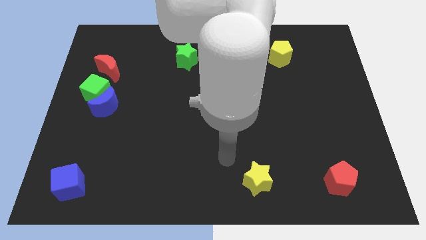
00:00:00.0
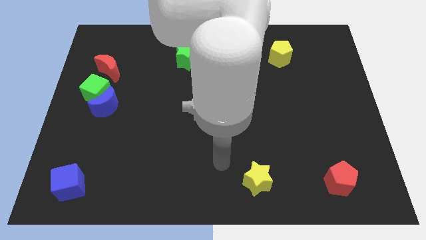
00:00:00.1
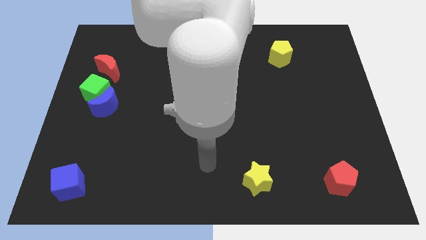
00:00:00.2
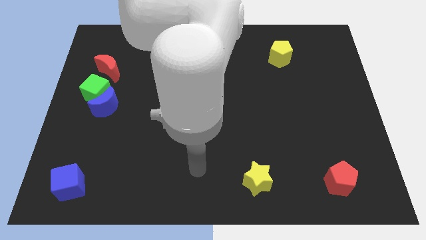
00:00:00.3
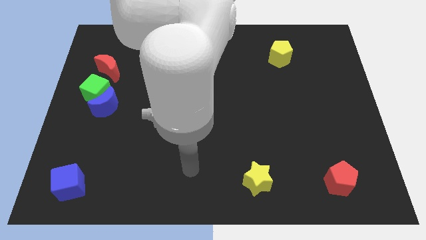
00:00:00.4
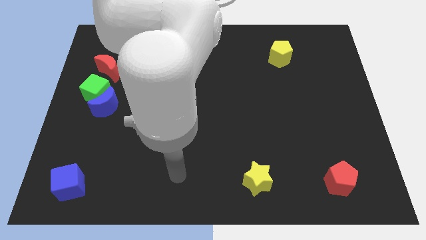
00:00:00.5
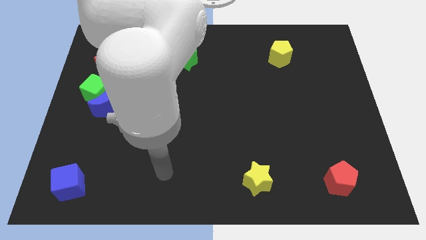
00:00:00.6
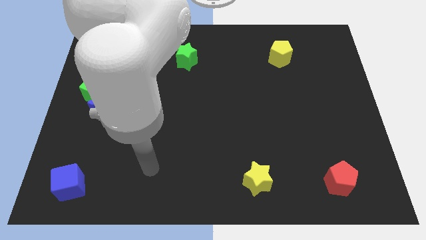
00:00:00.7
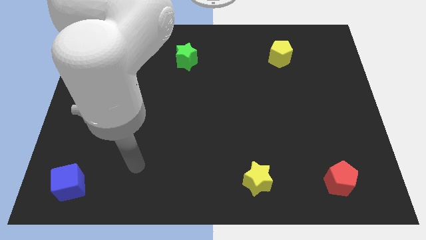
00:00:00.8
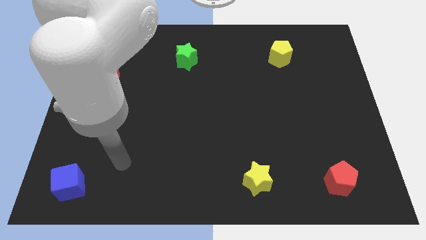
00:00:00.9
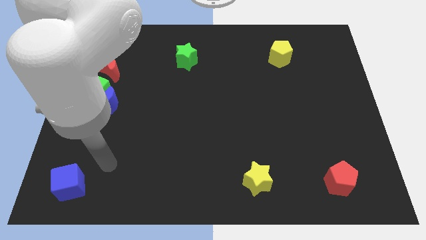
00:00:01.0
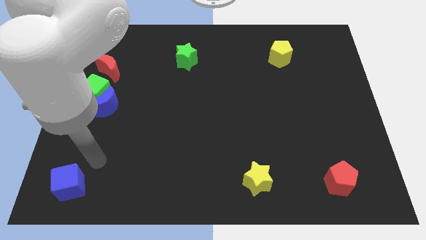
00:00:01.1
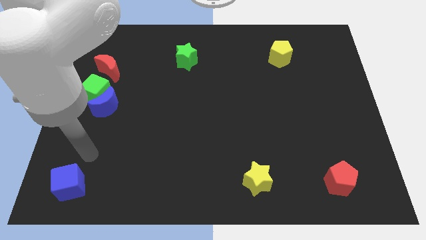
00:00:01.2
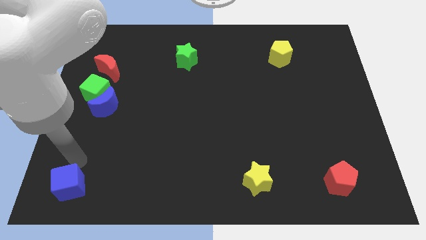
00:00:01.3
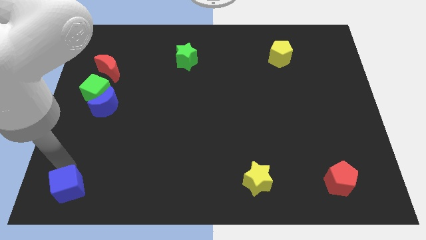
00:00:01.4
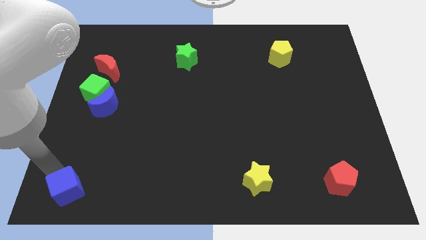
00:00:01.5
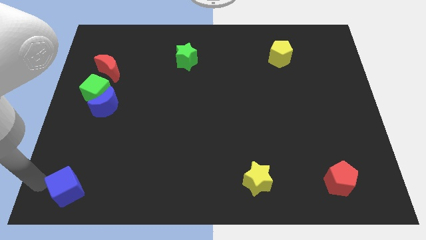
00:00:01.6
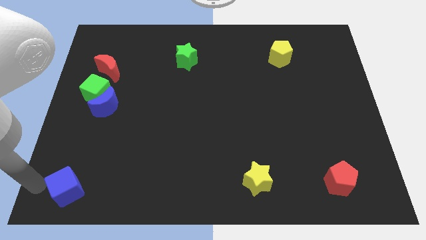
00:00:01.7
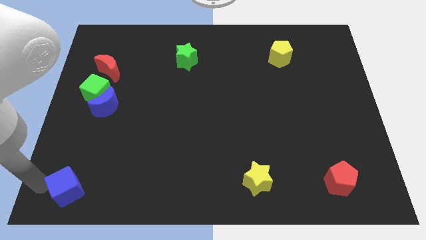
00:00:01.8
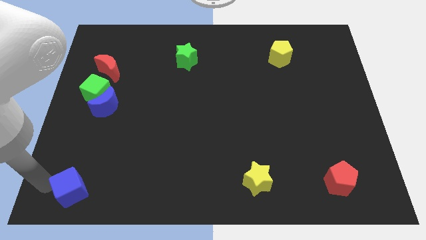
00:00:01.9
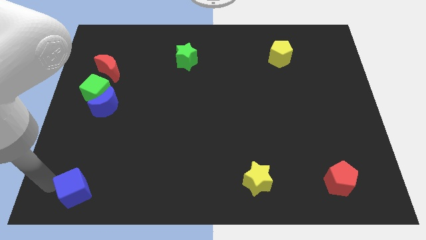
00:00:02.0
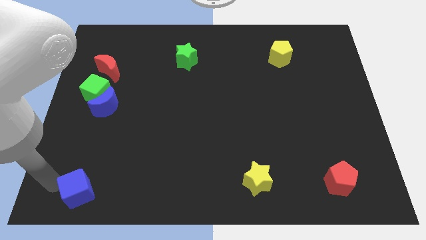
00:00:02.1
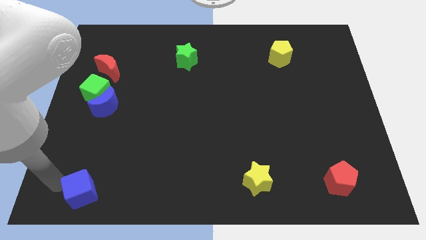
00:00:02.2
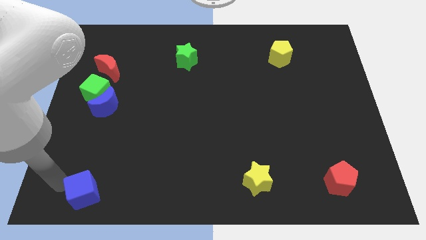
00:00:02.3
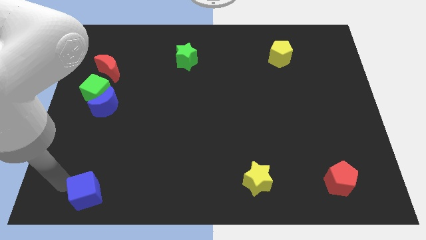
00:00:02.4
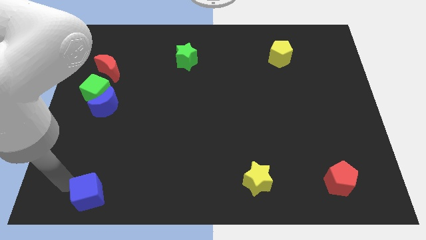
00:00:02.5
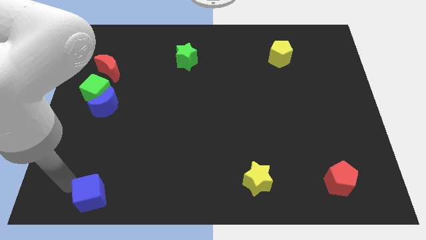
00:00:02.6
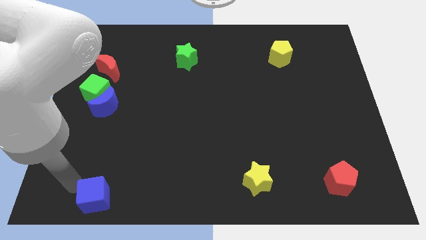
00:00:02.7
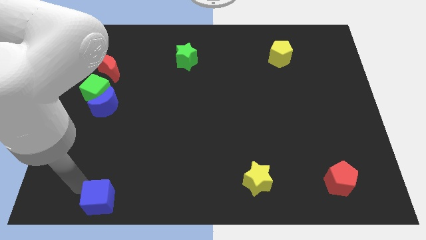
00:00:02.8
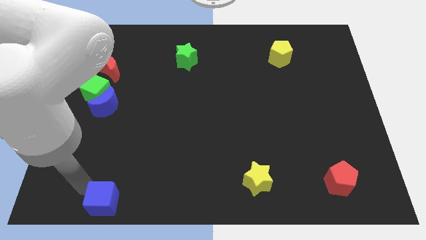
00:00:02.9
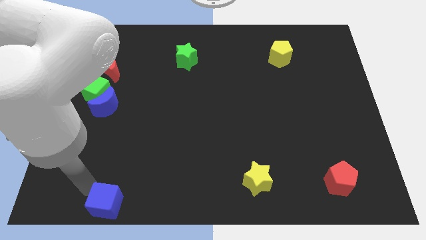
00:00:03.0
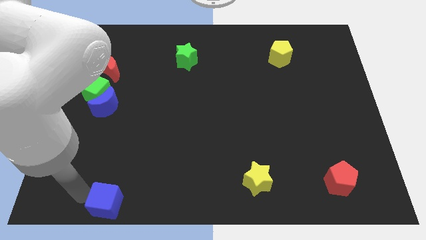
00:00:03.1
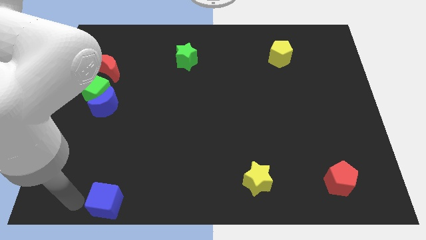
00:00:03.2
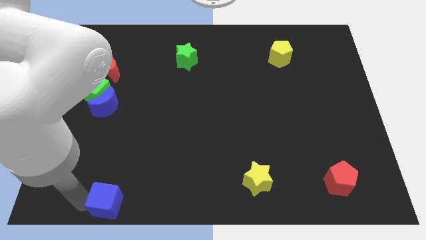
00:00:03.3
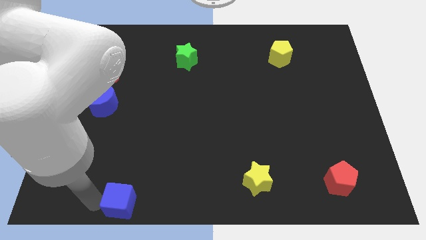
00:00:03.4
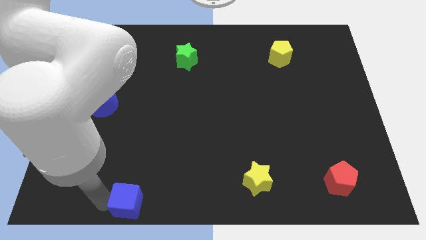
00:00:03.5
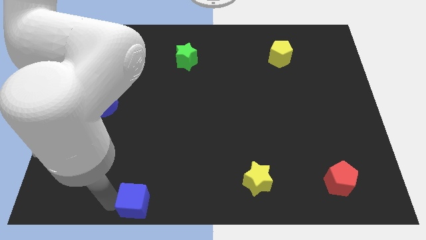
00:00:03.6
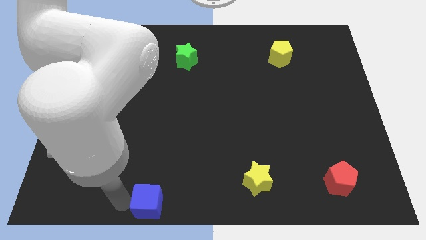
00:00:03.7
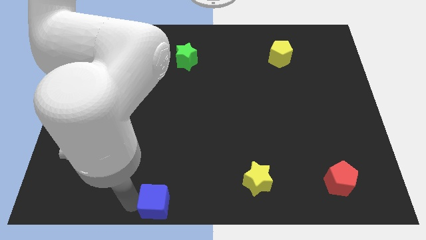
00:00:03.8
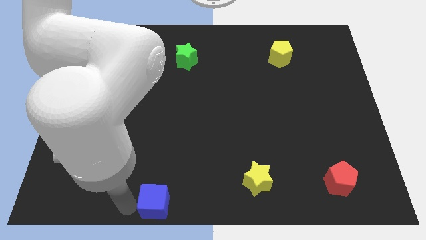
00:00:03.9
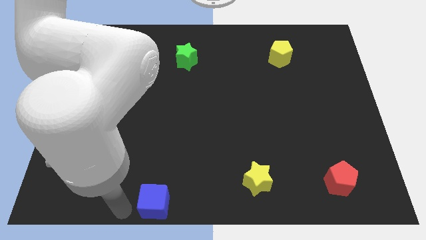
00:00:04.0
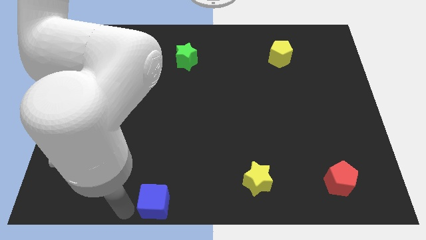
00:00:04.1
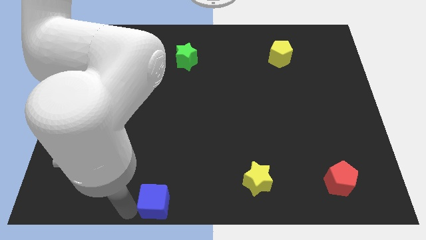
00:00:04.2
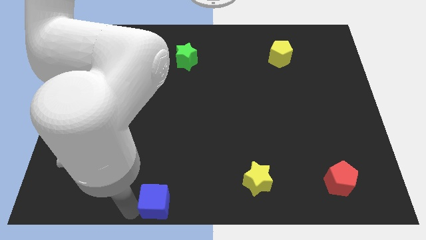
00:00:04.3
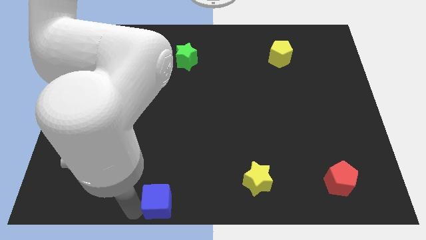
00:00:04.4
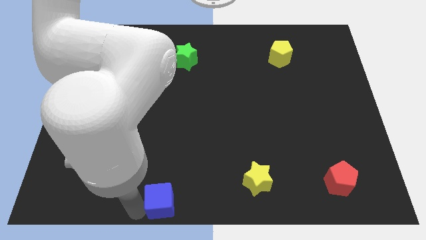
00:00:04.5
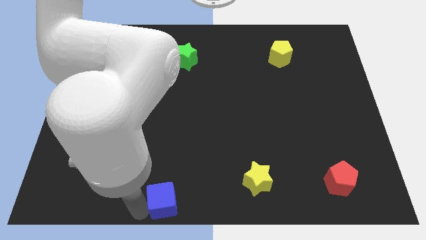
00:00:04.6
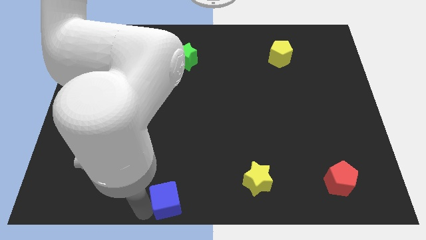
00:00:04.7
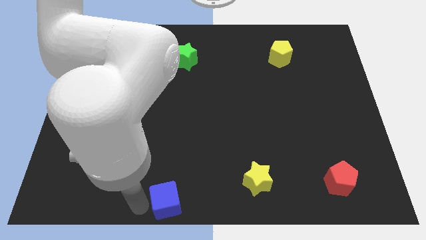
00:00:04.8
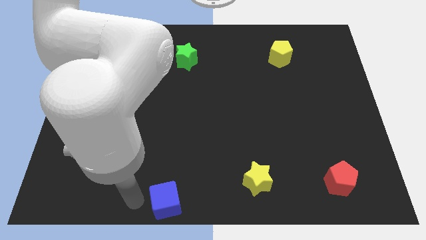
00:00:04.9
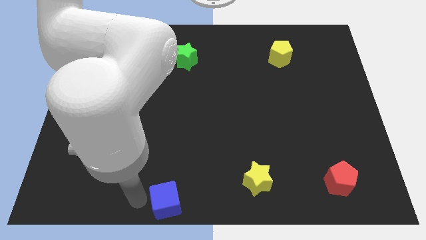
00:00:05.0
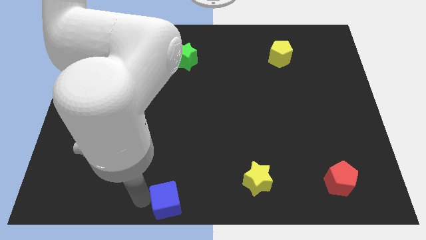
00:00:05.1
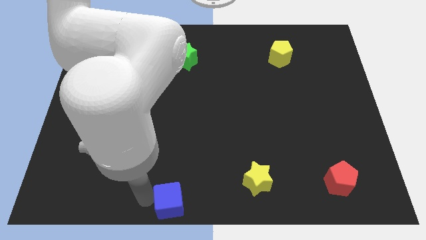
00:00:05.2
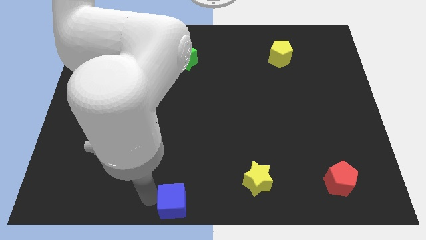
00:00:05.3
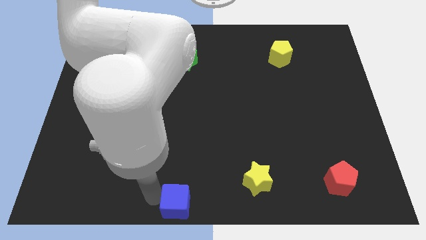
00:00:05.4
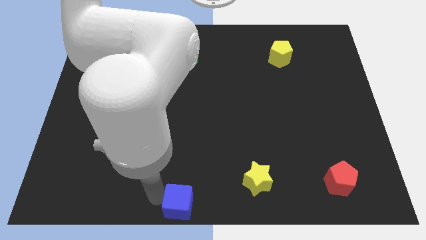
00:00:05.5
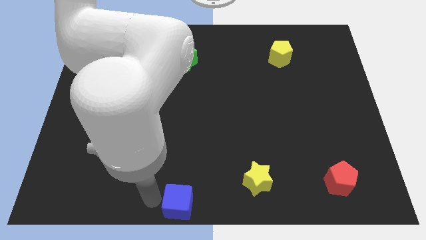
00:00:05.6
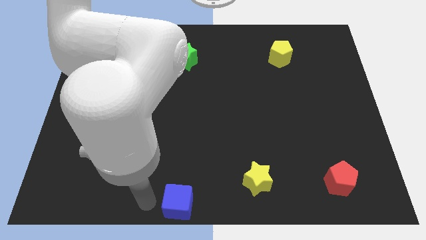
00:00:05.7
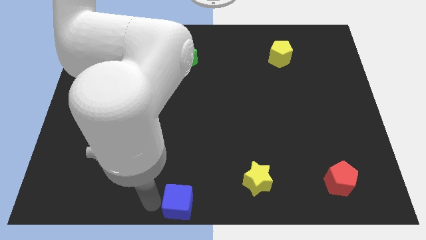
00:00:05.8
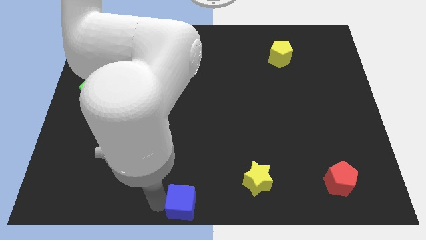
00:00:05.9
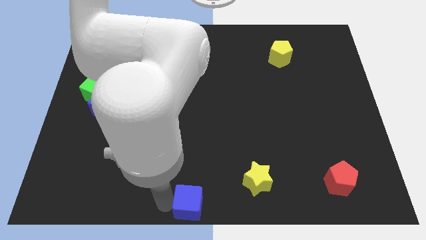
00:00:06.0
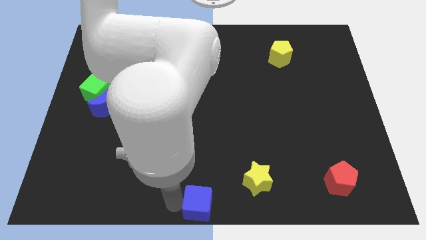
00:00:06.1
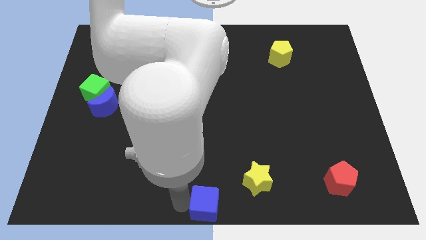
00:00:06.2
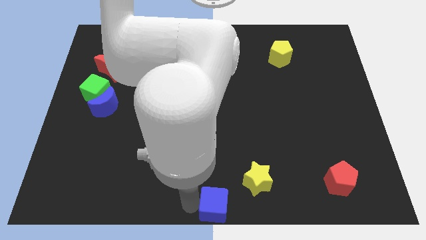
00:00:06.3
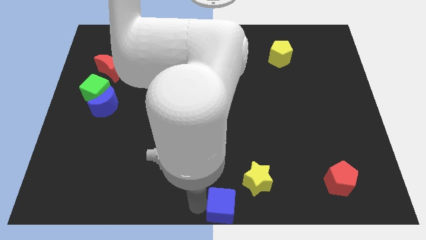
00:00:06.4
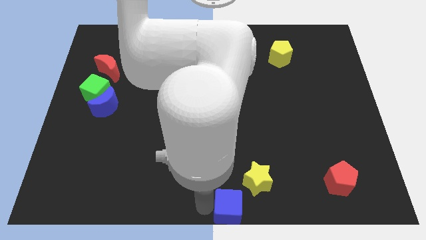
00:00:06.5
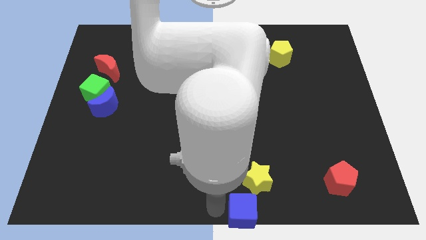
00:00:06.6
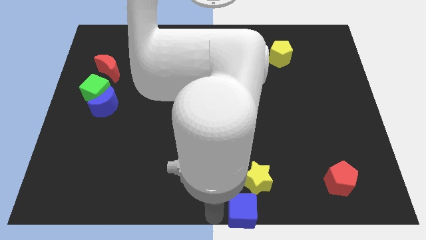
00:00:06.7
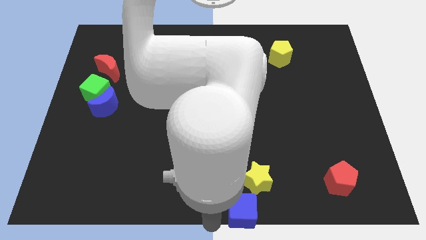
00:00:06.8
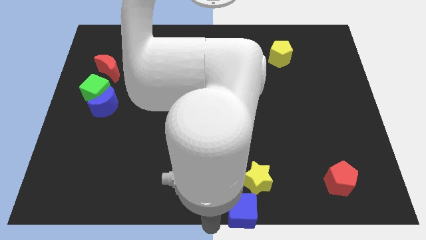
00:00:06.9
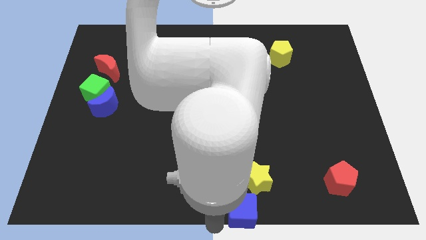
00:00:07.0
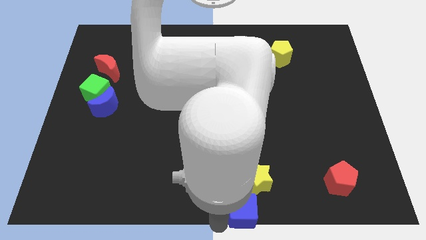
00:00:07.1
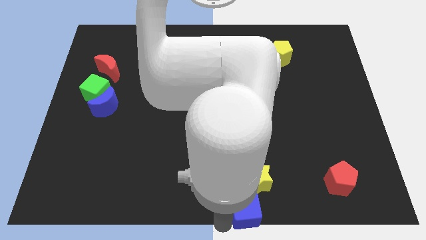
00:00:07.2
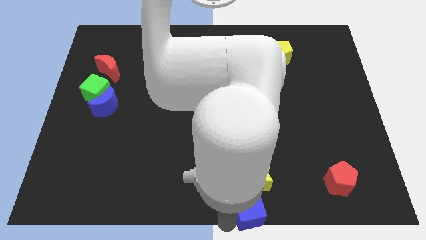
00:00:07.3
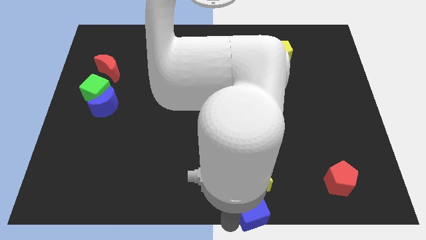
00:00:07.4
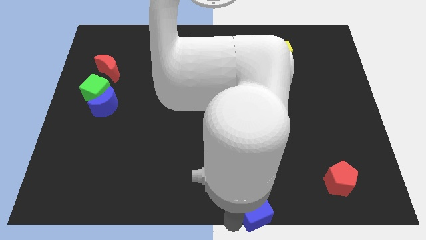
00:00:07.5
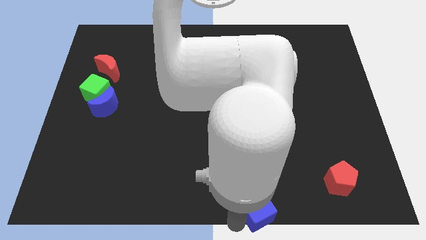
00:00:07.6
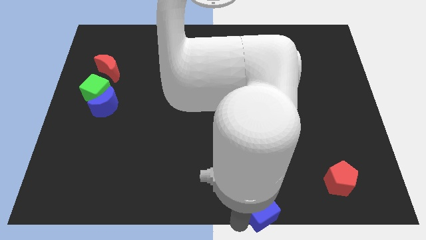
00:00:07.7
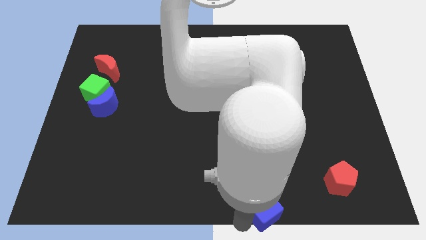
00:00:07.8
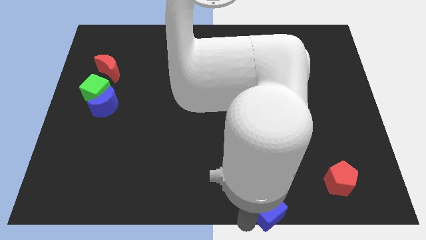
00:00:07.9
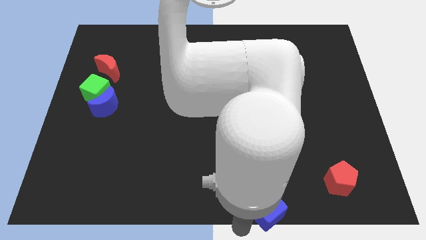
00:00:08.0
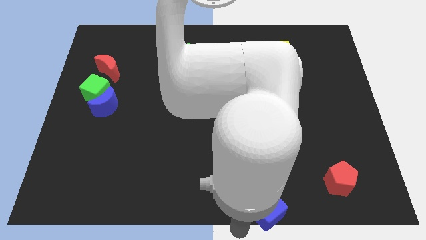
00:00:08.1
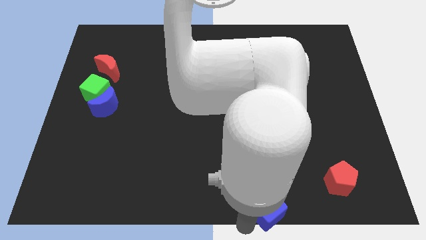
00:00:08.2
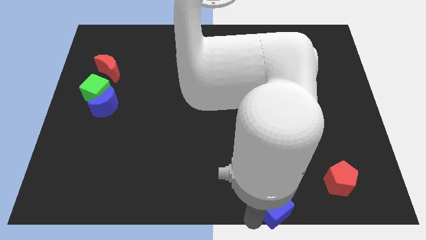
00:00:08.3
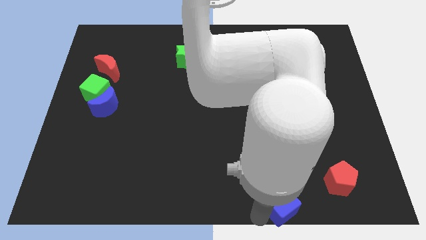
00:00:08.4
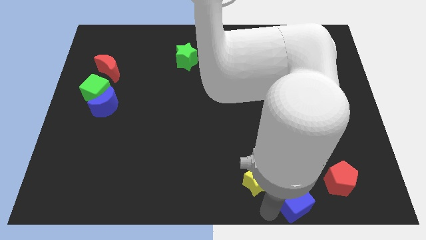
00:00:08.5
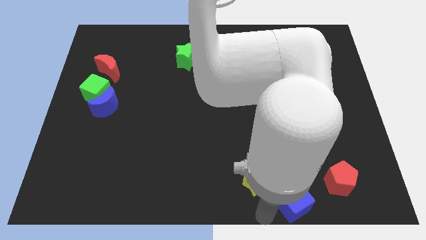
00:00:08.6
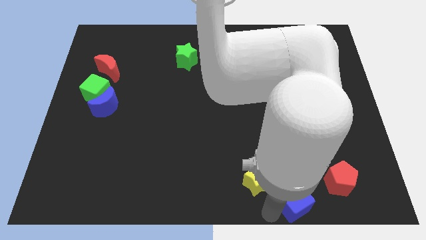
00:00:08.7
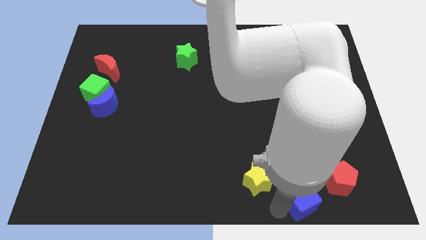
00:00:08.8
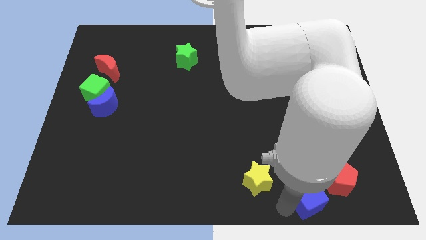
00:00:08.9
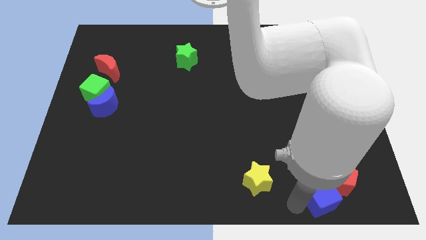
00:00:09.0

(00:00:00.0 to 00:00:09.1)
push the blue cube to the red pentagon
